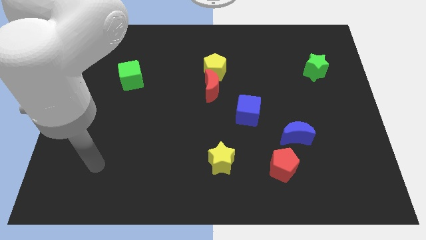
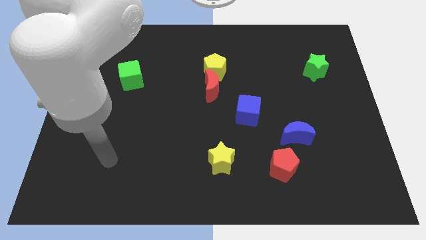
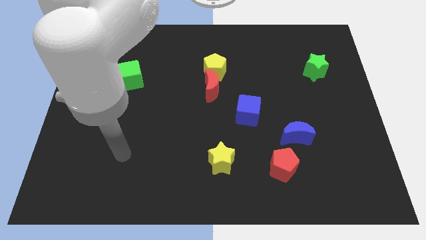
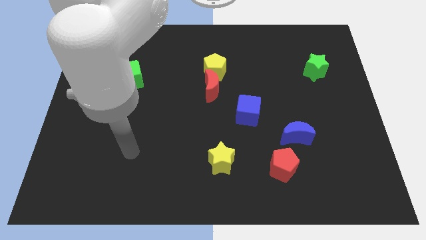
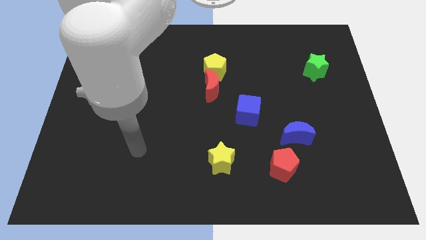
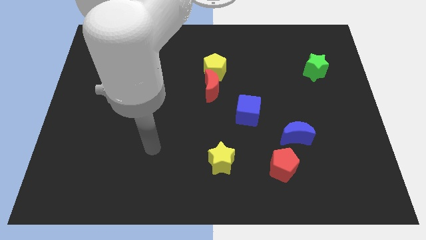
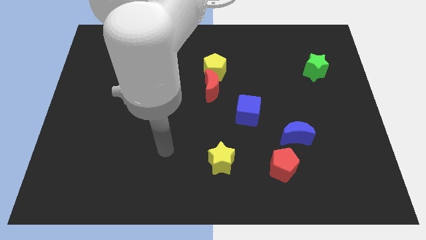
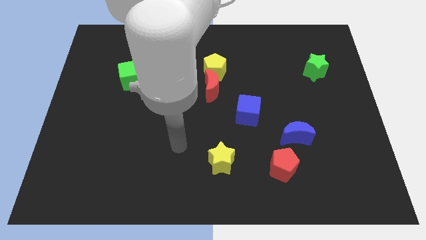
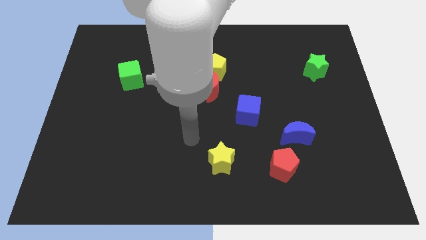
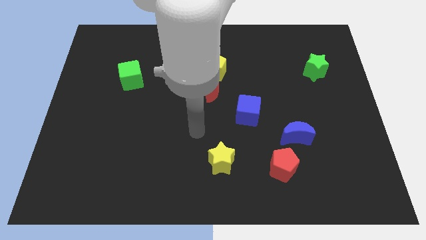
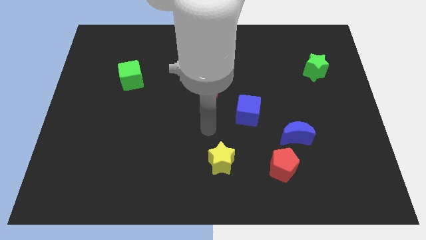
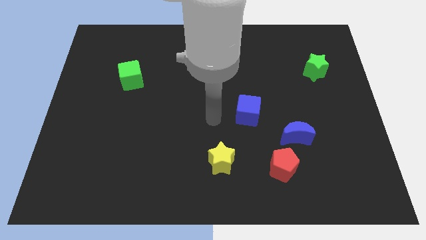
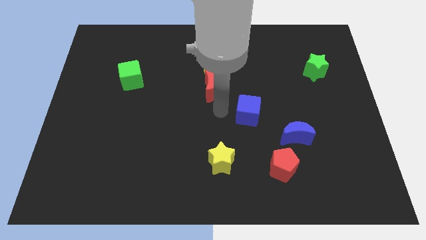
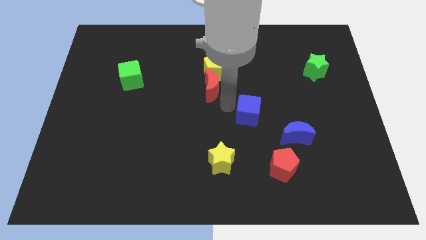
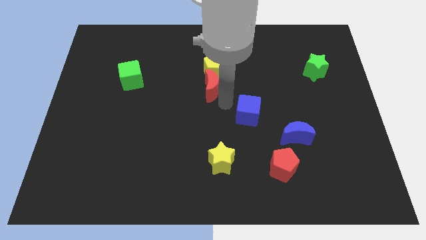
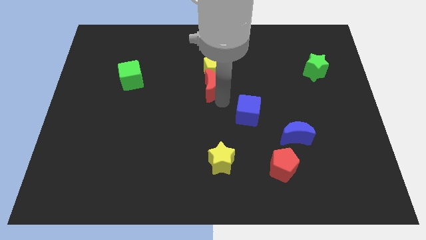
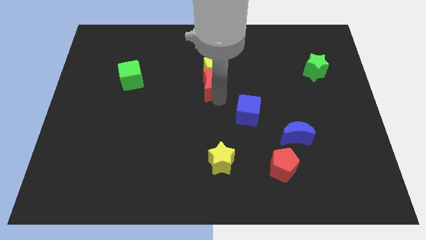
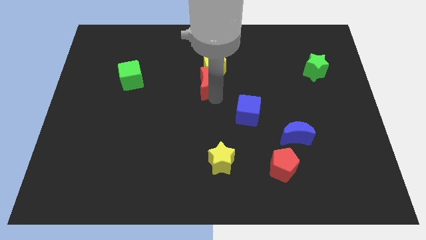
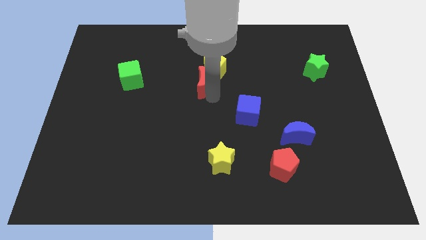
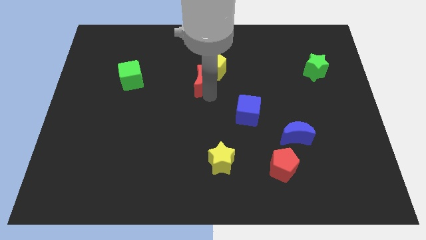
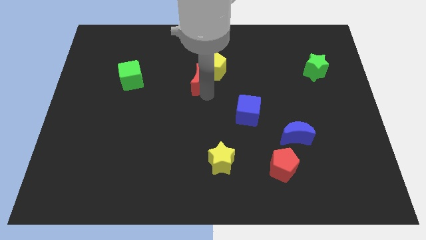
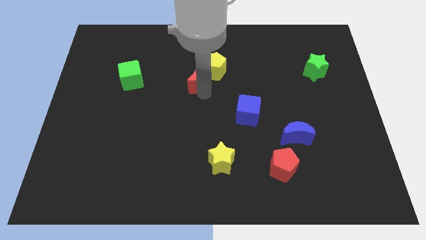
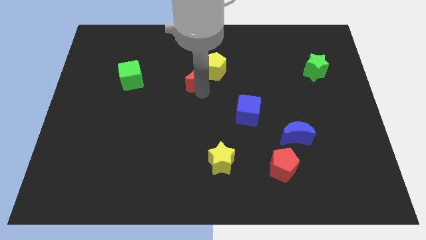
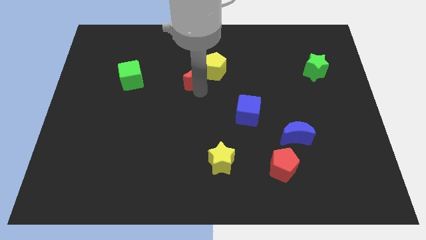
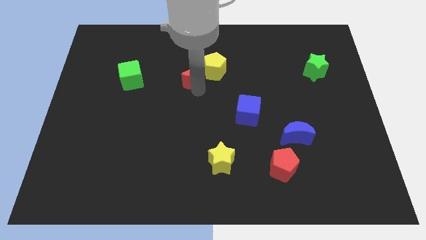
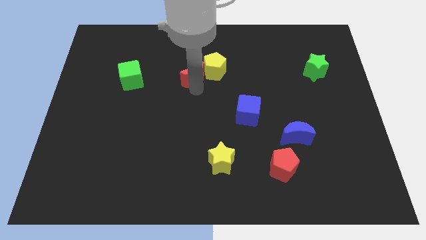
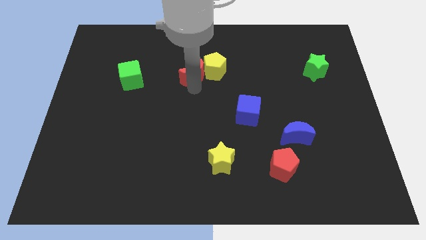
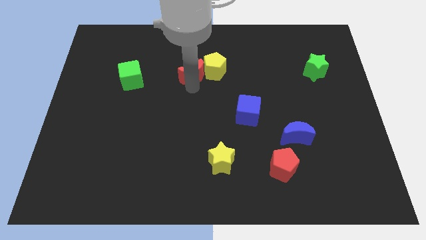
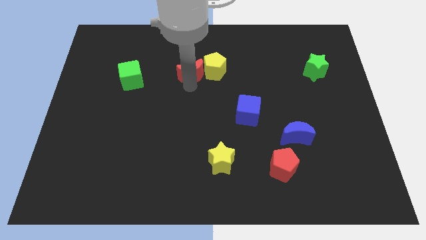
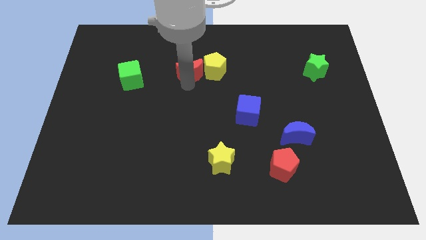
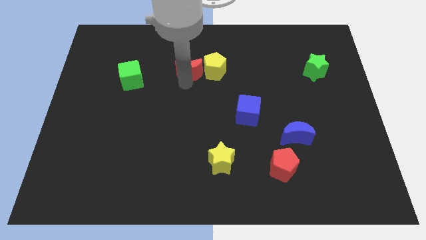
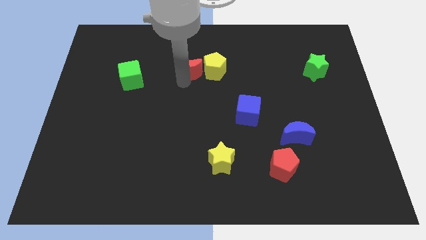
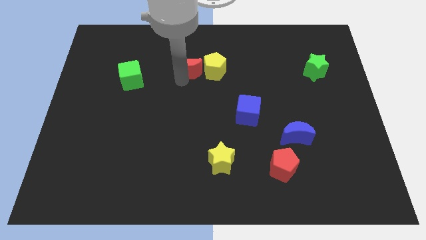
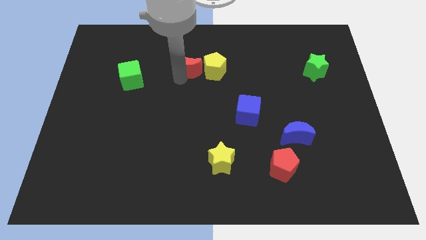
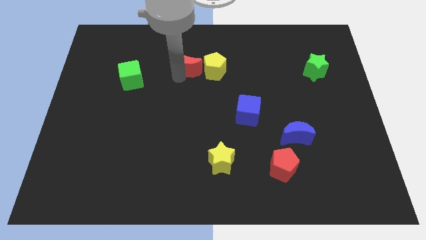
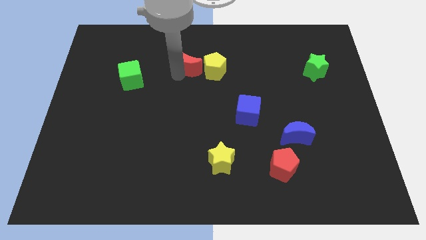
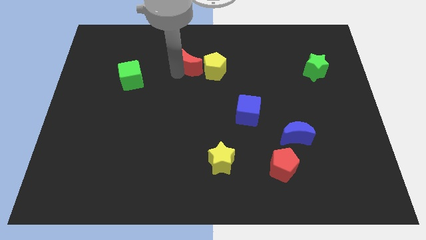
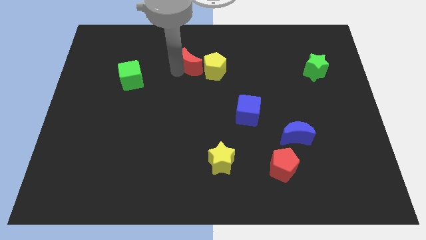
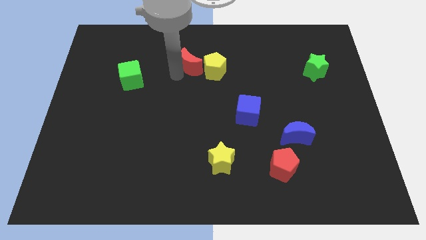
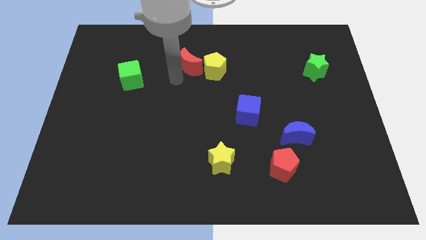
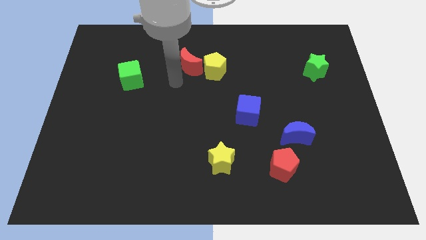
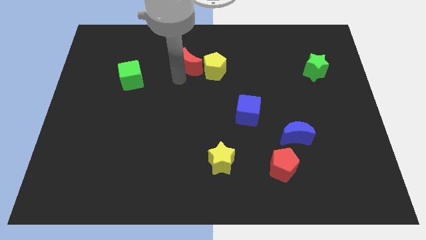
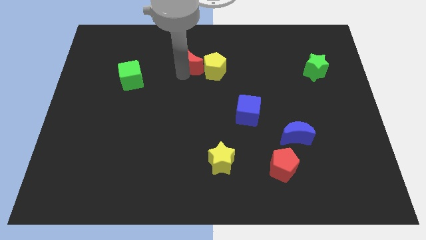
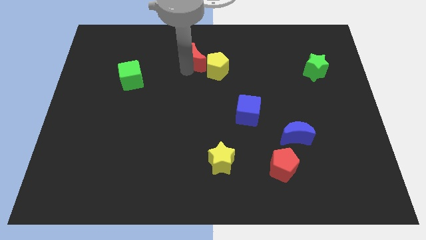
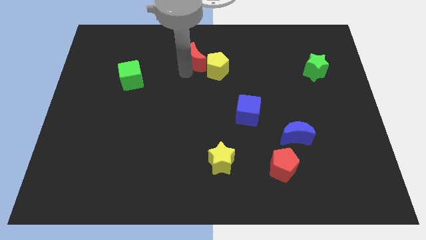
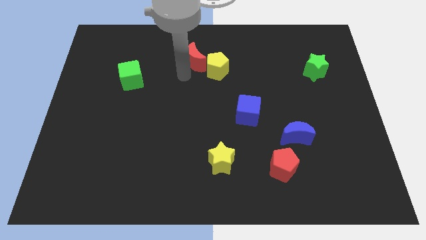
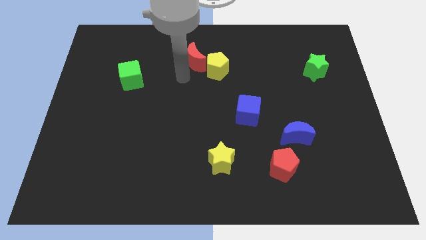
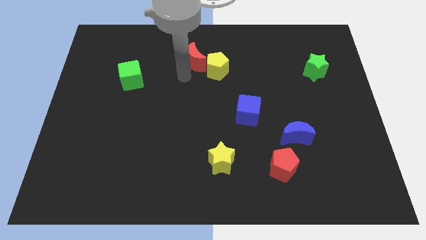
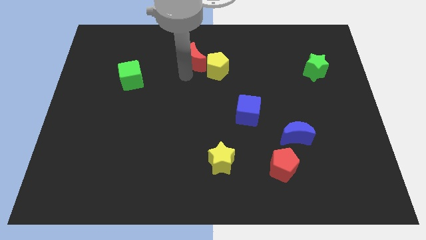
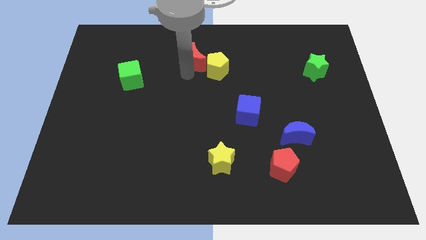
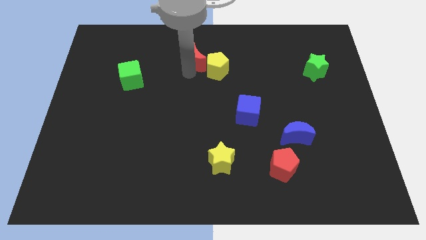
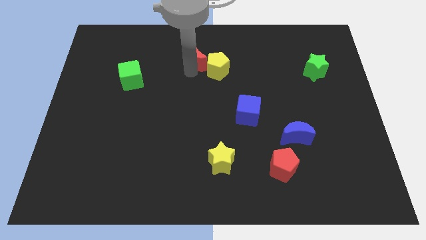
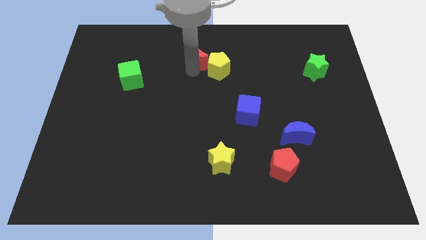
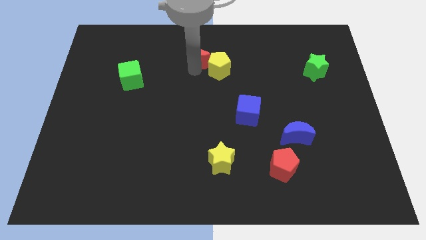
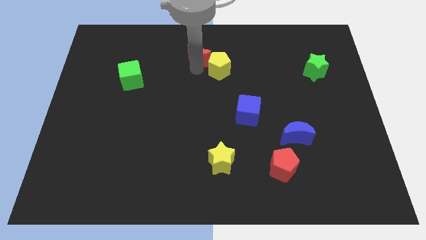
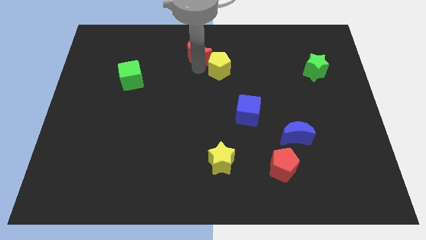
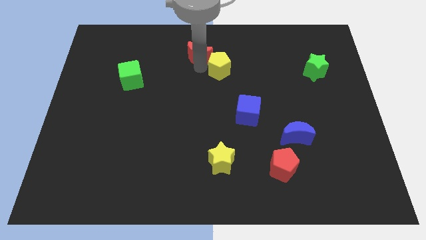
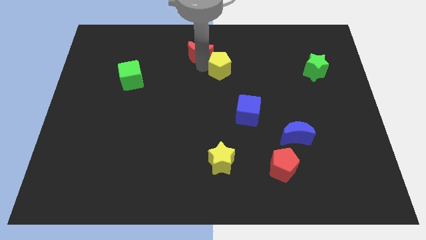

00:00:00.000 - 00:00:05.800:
put the red moon to the top
